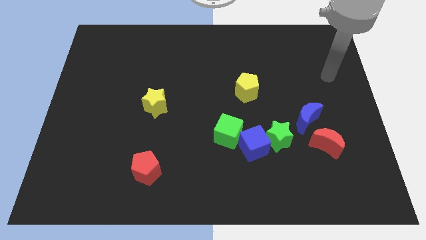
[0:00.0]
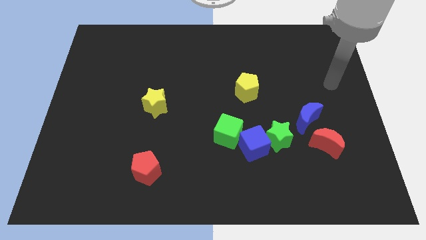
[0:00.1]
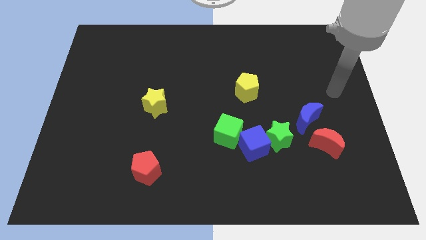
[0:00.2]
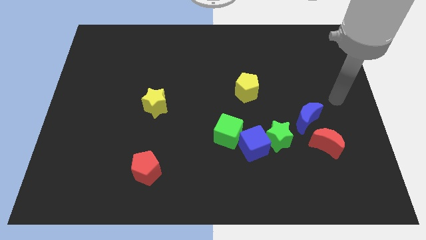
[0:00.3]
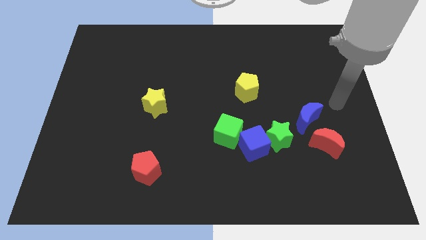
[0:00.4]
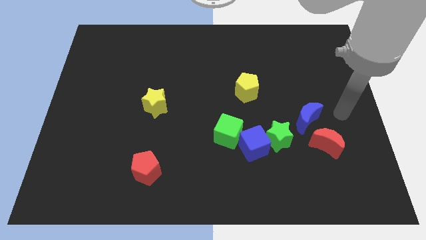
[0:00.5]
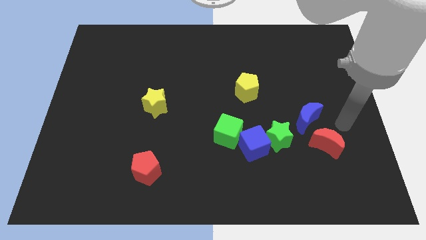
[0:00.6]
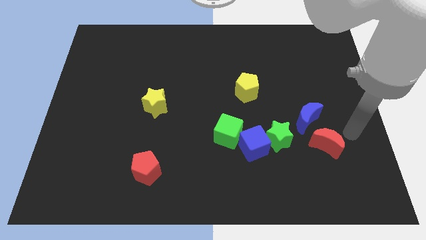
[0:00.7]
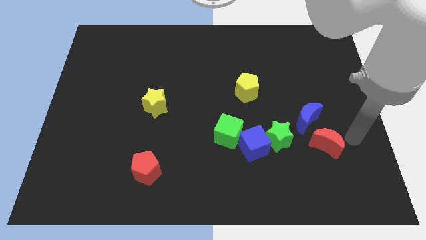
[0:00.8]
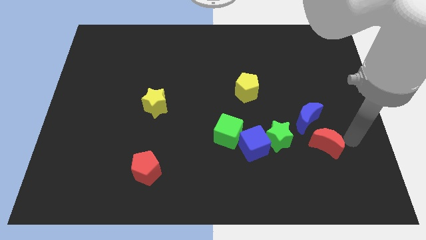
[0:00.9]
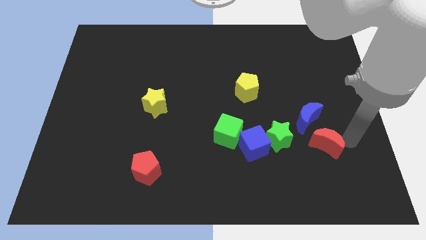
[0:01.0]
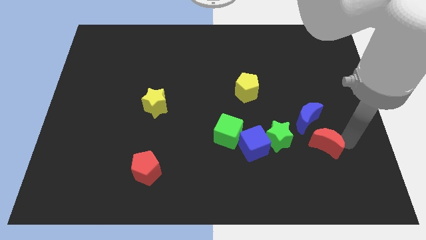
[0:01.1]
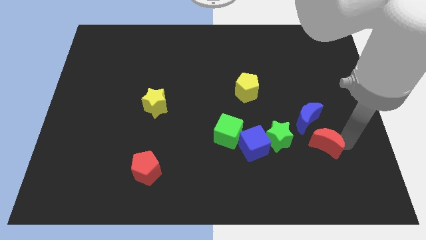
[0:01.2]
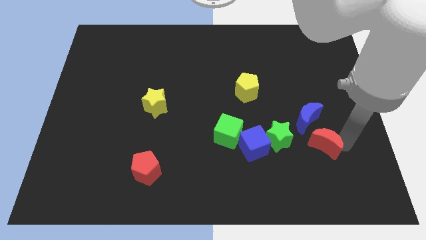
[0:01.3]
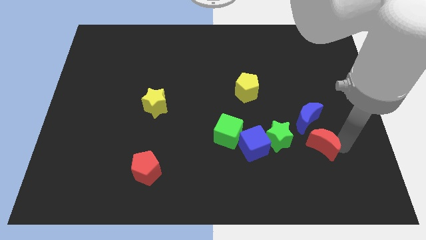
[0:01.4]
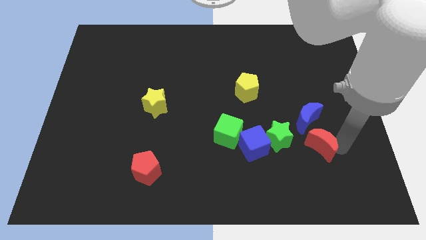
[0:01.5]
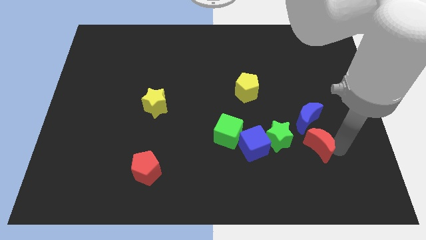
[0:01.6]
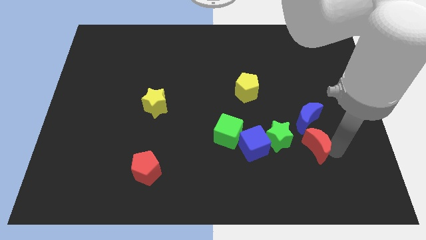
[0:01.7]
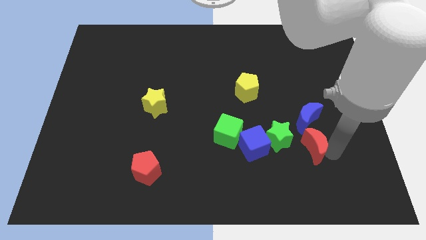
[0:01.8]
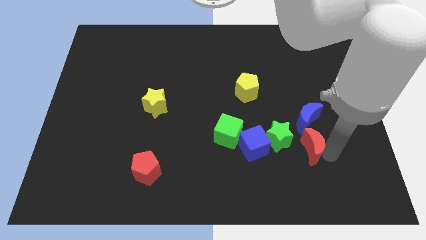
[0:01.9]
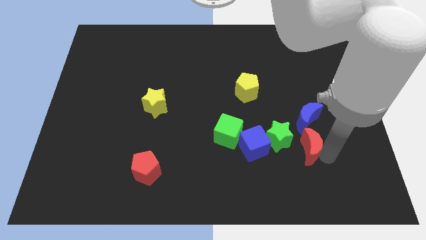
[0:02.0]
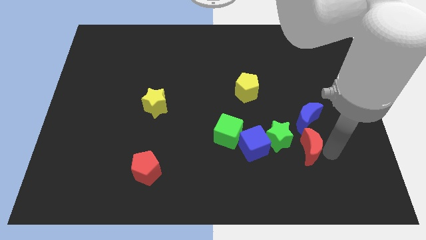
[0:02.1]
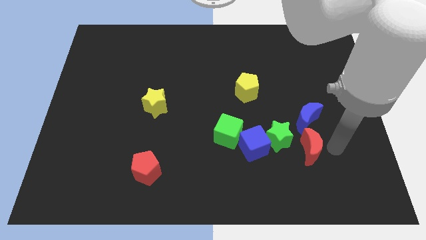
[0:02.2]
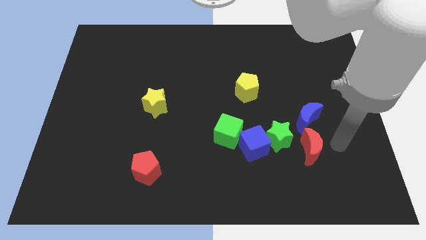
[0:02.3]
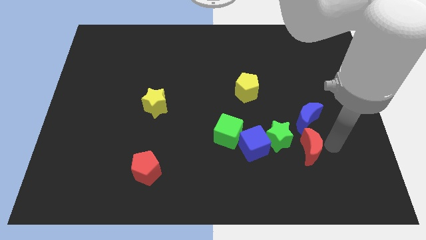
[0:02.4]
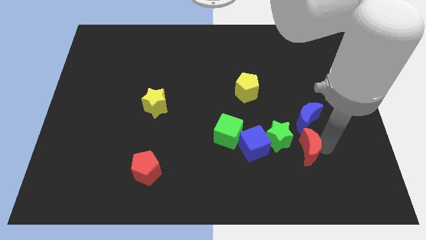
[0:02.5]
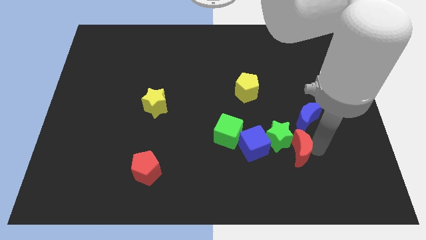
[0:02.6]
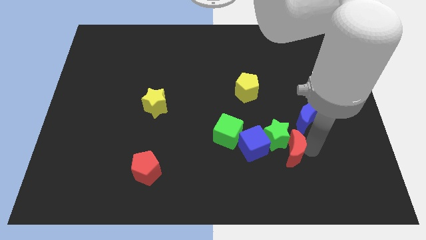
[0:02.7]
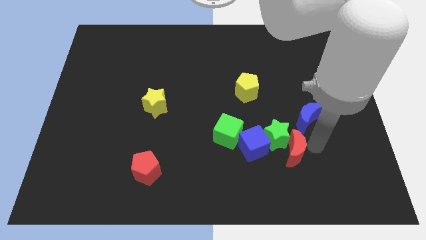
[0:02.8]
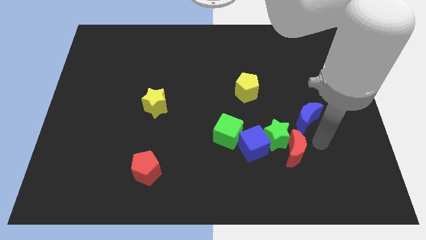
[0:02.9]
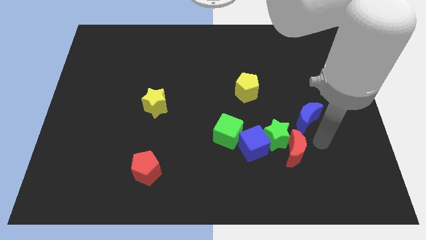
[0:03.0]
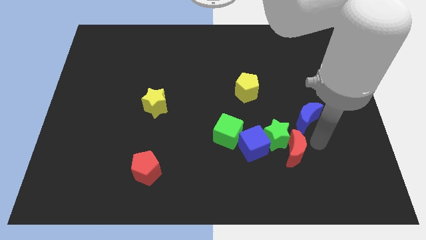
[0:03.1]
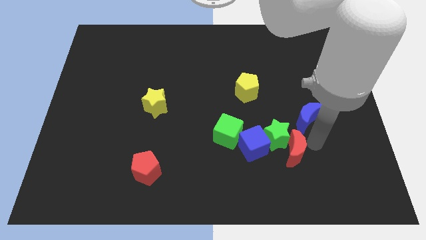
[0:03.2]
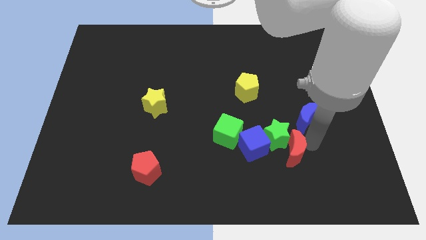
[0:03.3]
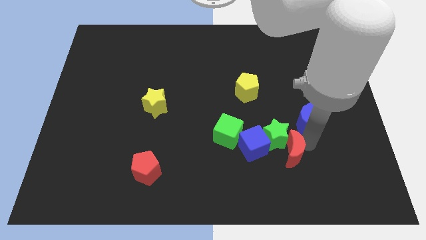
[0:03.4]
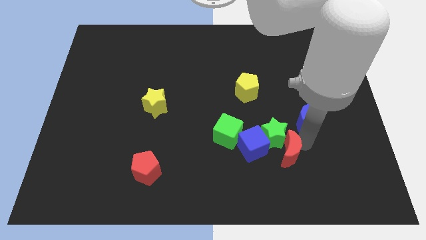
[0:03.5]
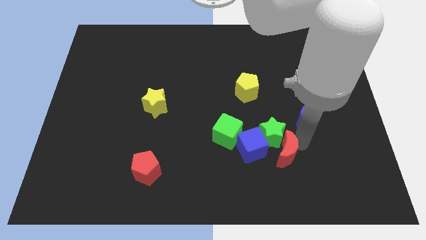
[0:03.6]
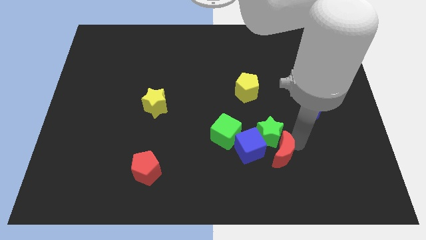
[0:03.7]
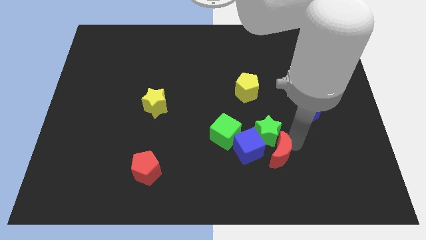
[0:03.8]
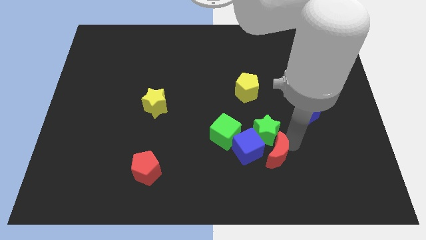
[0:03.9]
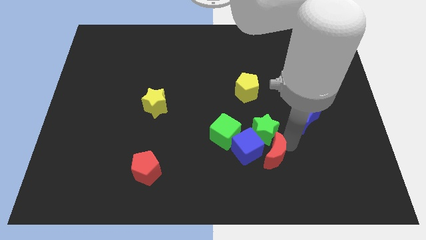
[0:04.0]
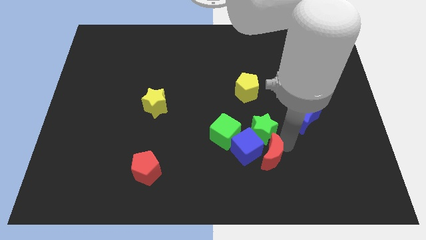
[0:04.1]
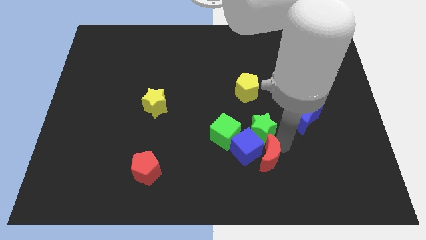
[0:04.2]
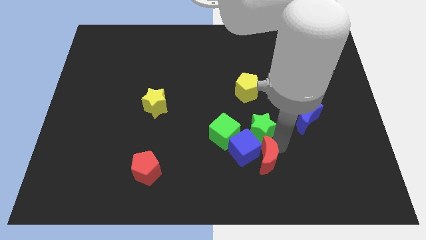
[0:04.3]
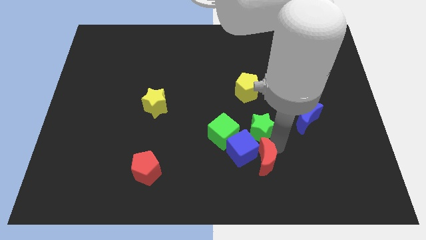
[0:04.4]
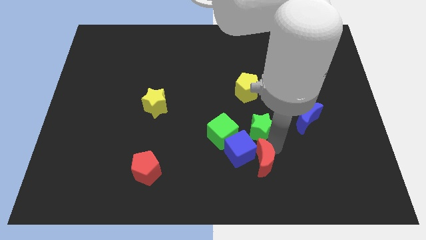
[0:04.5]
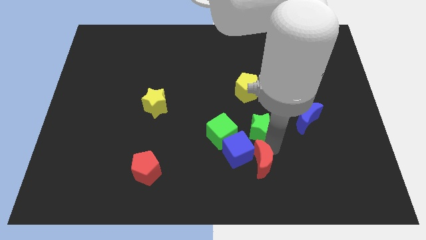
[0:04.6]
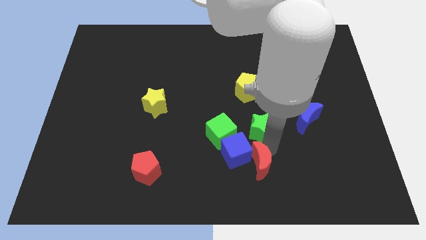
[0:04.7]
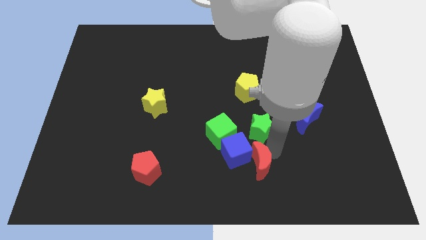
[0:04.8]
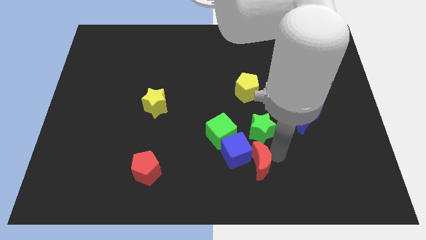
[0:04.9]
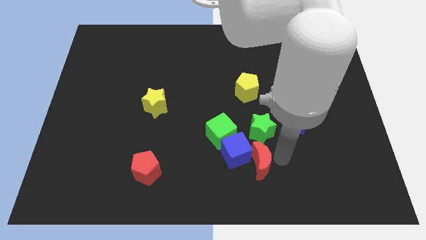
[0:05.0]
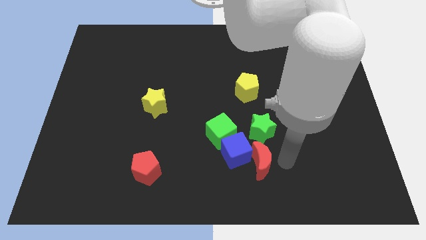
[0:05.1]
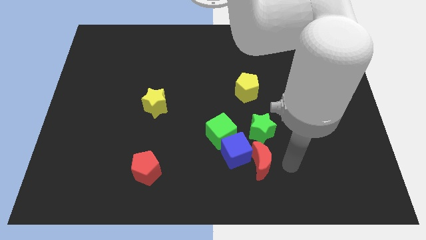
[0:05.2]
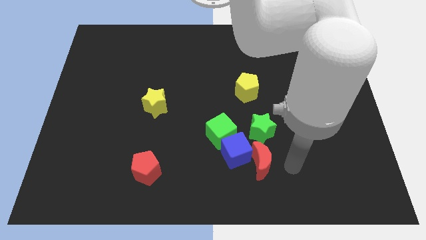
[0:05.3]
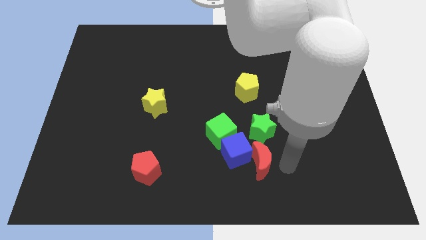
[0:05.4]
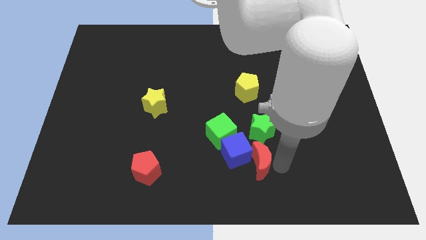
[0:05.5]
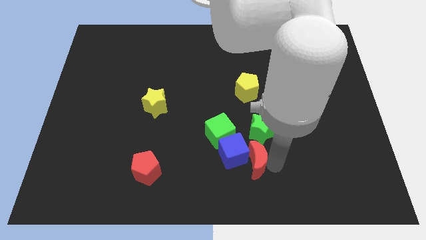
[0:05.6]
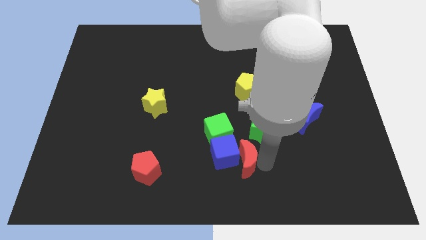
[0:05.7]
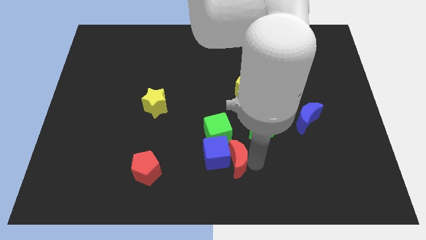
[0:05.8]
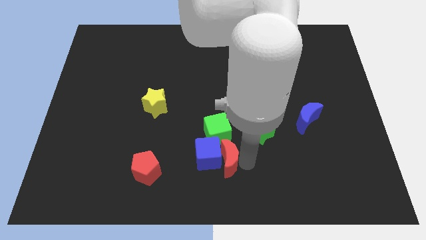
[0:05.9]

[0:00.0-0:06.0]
push the red moon to the left

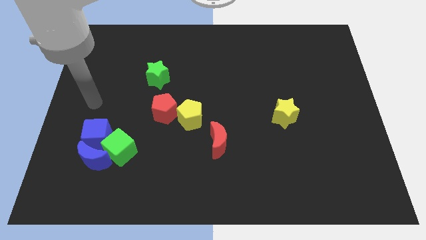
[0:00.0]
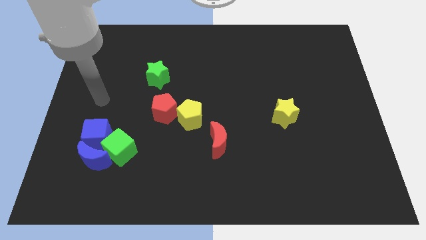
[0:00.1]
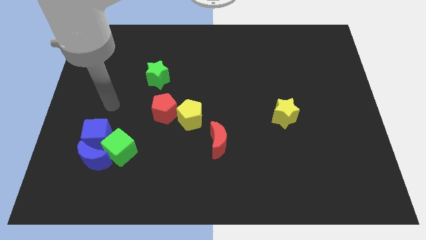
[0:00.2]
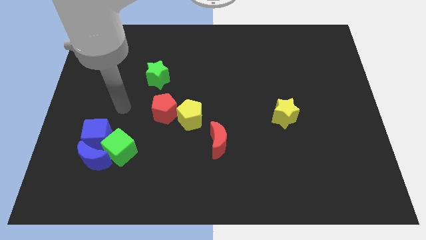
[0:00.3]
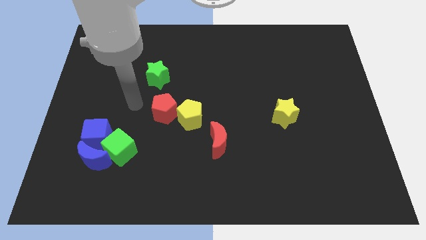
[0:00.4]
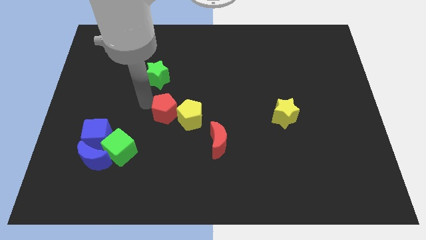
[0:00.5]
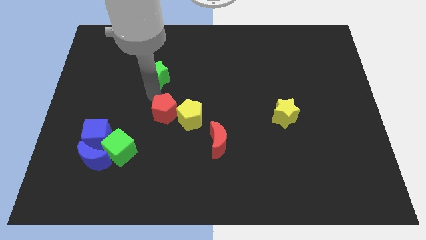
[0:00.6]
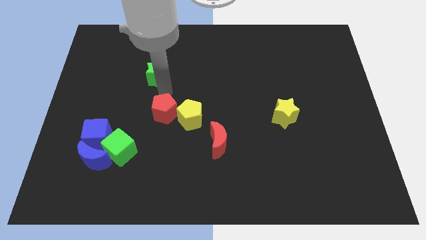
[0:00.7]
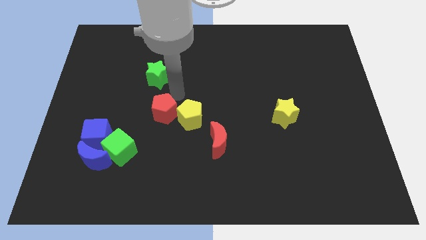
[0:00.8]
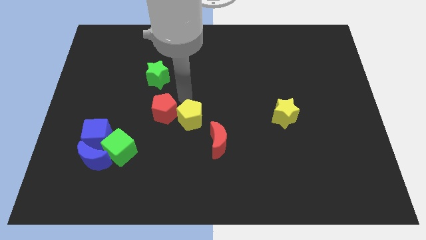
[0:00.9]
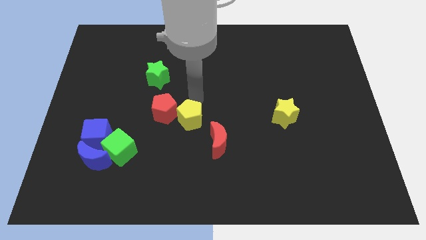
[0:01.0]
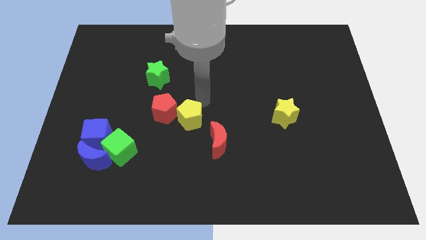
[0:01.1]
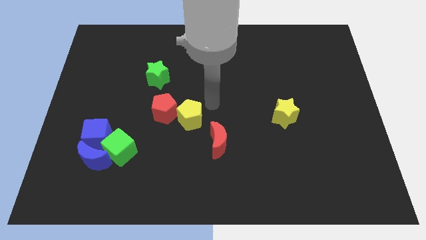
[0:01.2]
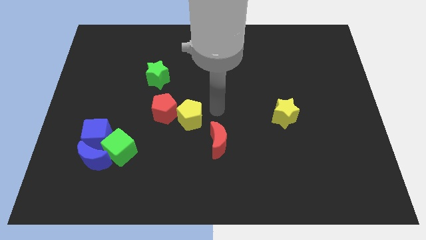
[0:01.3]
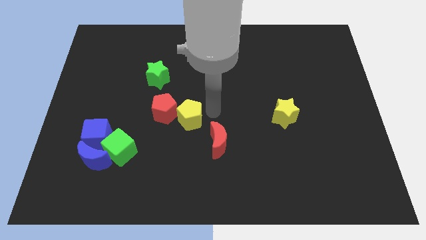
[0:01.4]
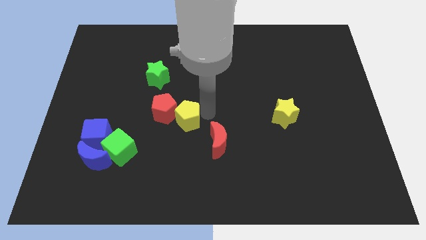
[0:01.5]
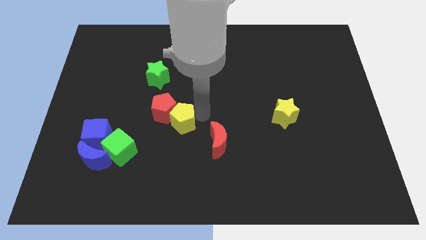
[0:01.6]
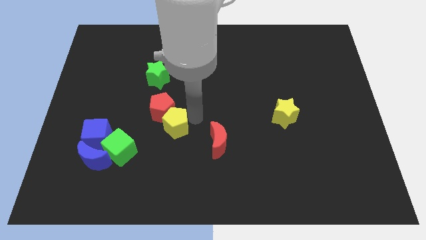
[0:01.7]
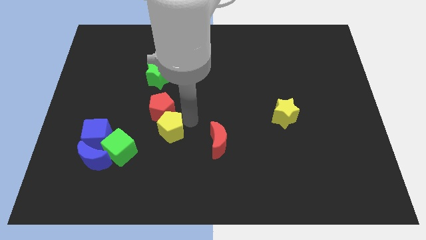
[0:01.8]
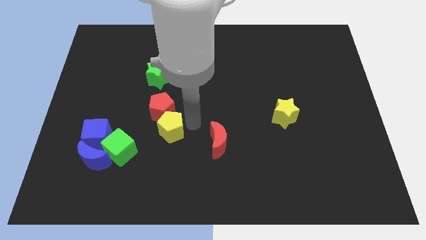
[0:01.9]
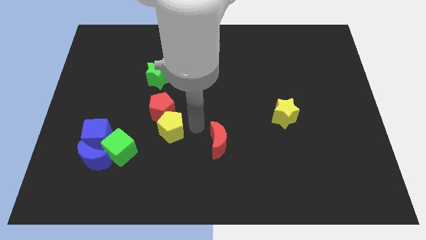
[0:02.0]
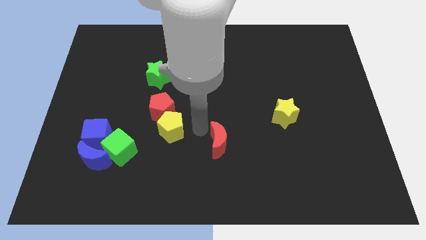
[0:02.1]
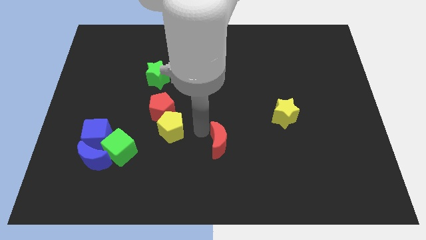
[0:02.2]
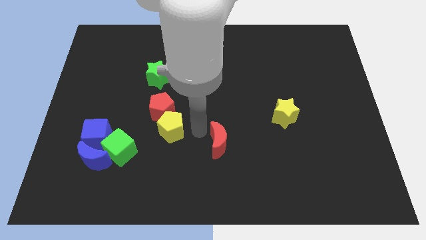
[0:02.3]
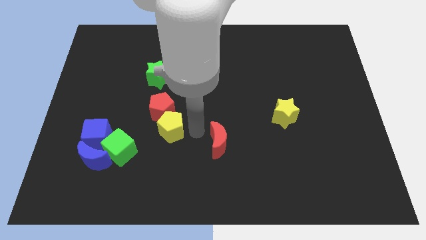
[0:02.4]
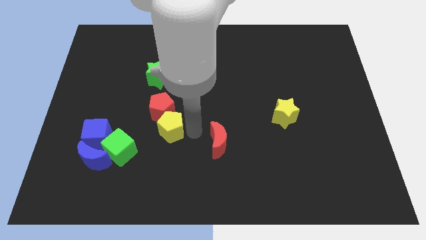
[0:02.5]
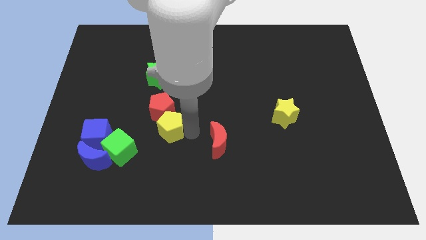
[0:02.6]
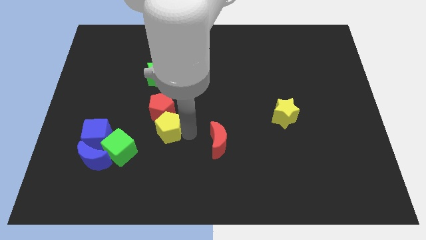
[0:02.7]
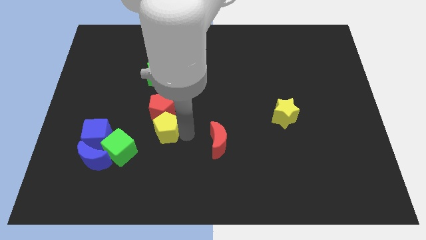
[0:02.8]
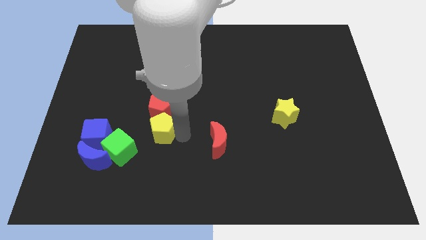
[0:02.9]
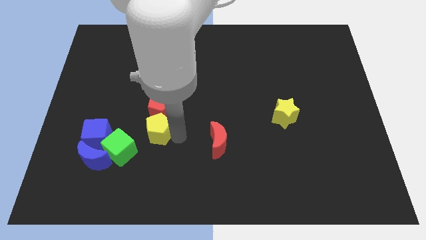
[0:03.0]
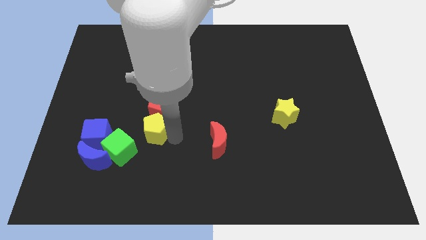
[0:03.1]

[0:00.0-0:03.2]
move the yellow pentagon a little bit to the left
